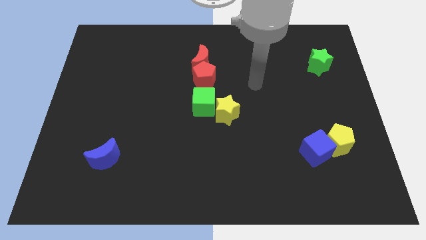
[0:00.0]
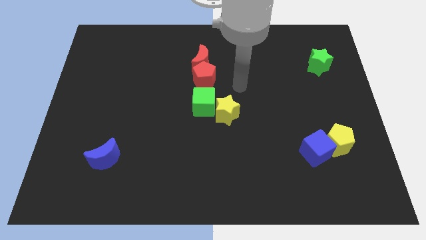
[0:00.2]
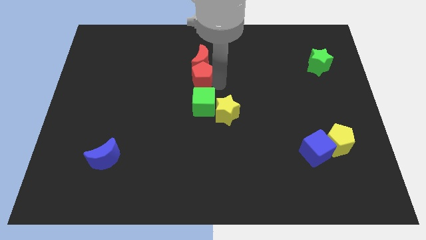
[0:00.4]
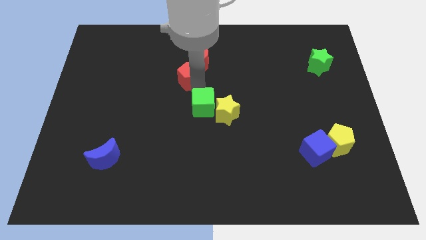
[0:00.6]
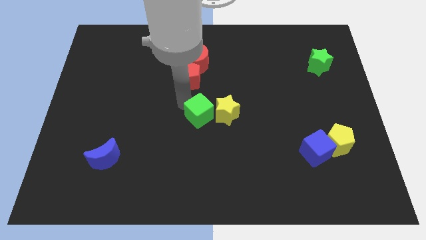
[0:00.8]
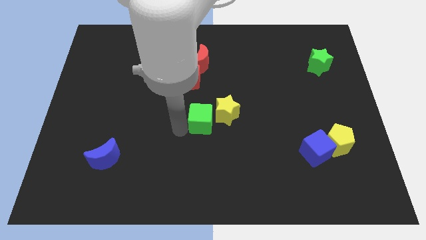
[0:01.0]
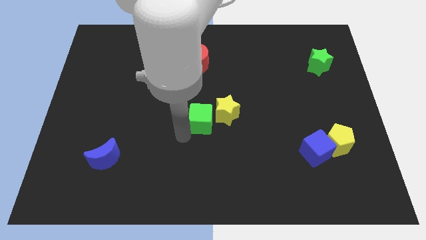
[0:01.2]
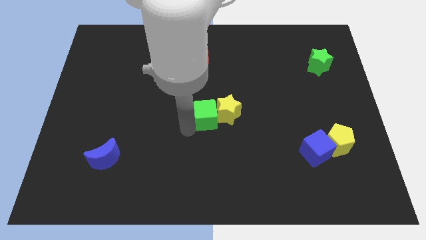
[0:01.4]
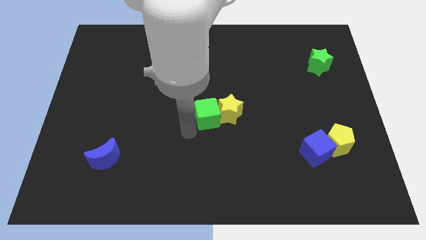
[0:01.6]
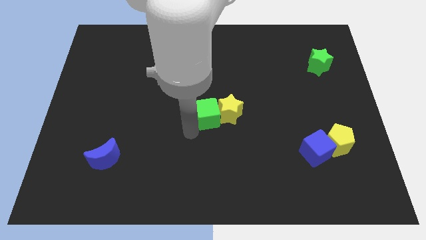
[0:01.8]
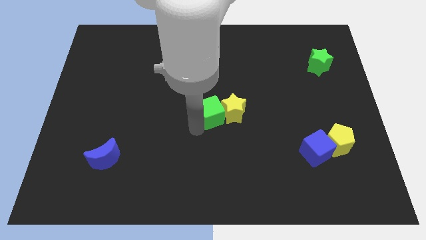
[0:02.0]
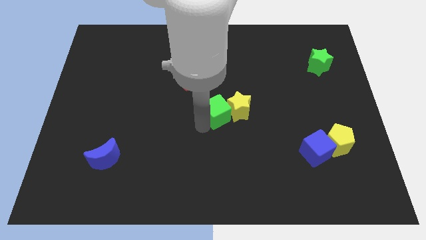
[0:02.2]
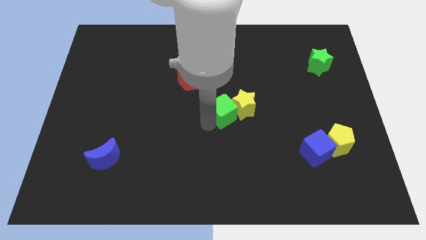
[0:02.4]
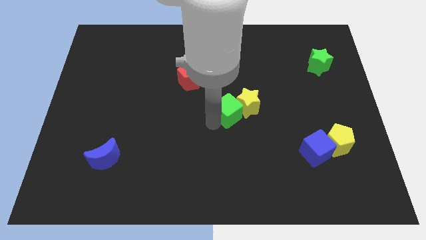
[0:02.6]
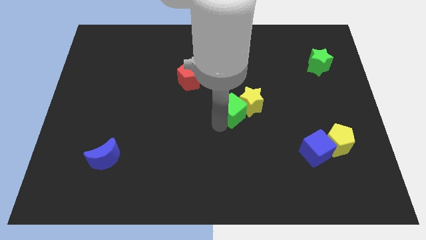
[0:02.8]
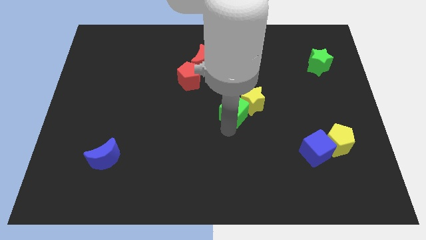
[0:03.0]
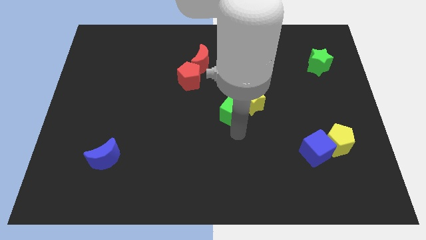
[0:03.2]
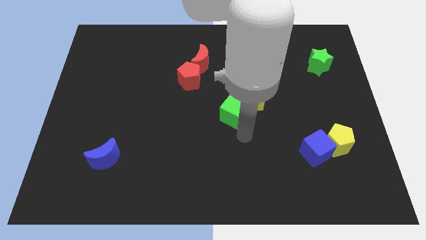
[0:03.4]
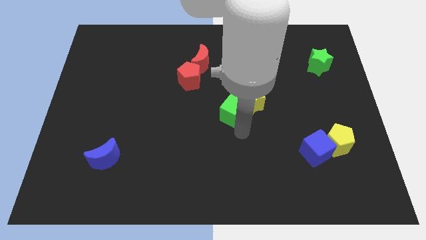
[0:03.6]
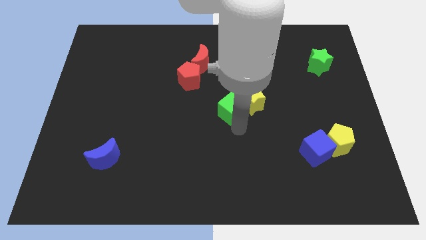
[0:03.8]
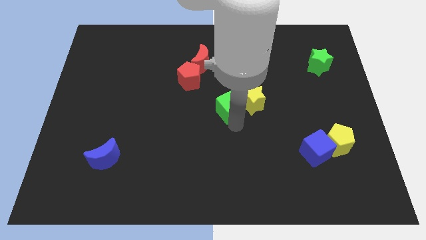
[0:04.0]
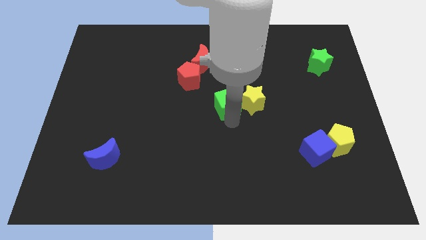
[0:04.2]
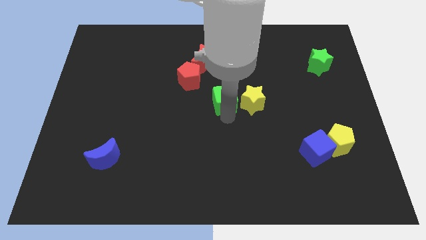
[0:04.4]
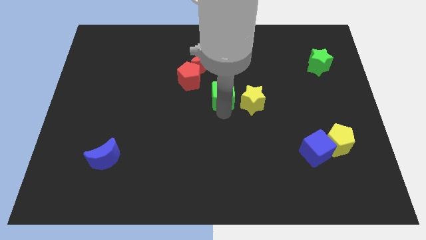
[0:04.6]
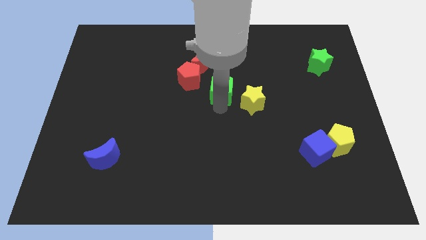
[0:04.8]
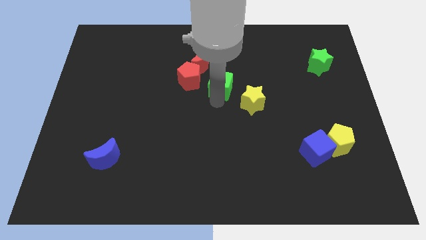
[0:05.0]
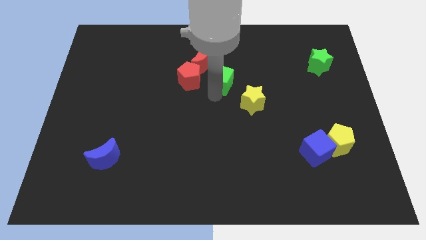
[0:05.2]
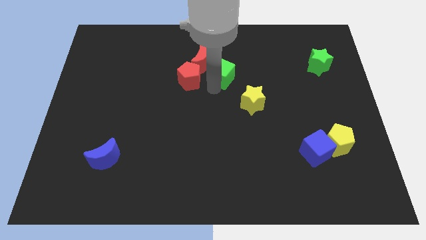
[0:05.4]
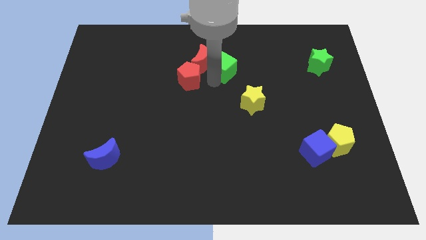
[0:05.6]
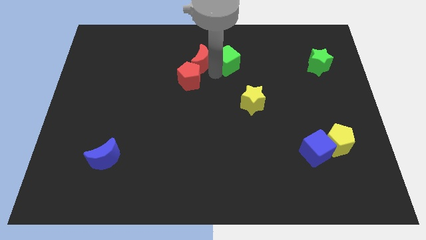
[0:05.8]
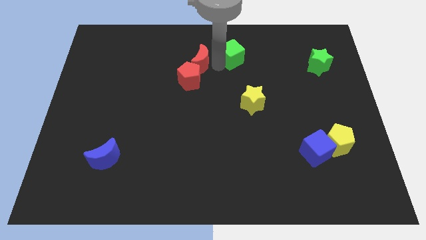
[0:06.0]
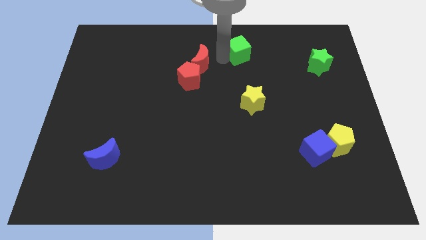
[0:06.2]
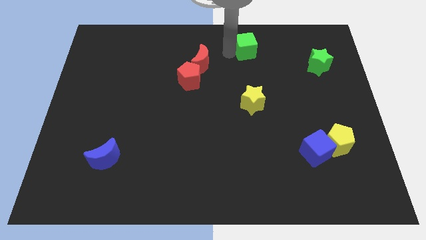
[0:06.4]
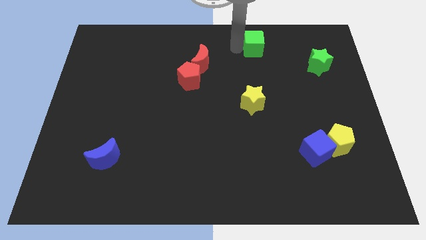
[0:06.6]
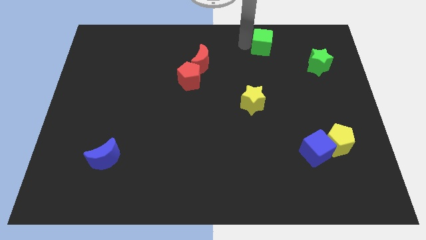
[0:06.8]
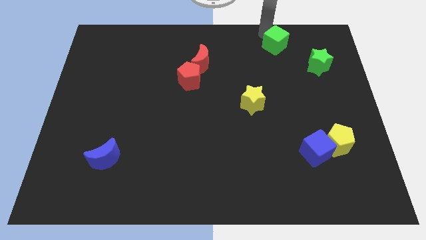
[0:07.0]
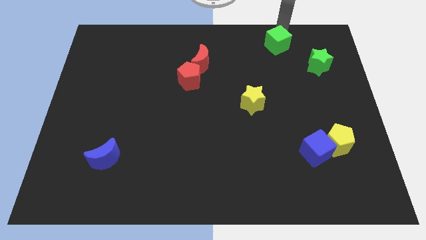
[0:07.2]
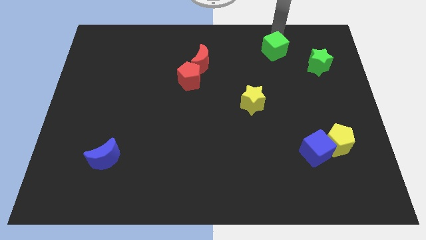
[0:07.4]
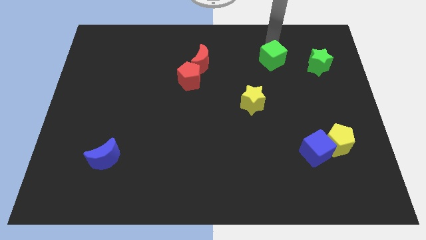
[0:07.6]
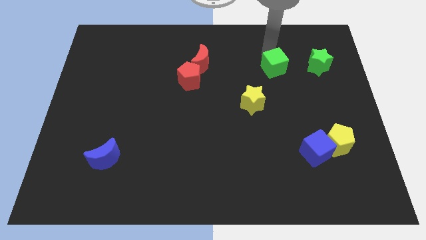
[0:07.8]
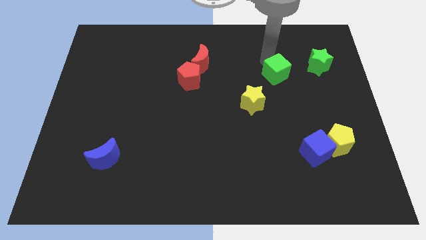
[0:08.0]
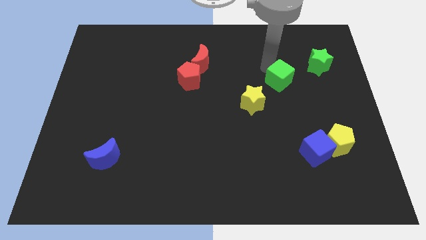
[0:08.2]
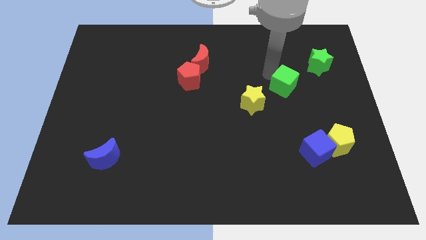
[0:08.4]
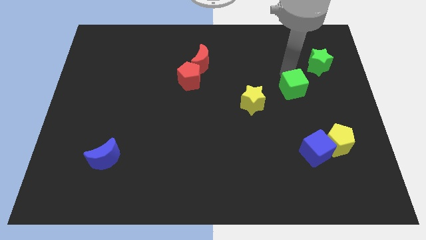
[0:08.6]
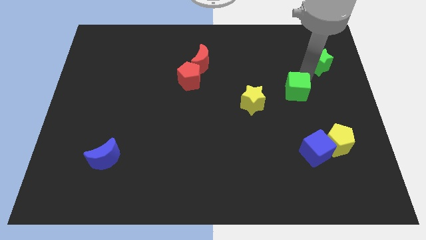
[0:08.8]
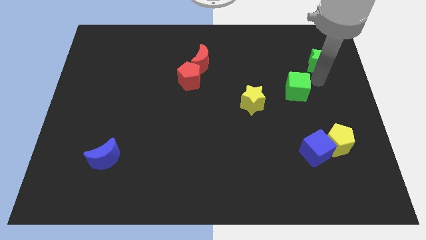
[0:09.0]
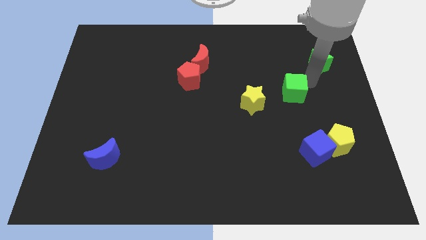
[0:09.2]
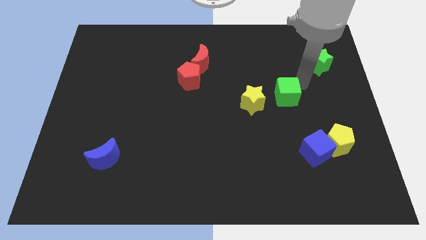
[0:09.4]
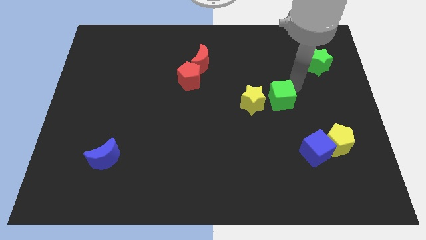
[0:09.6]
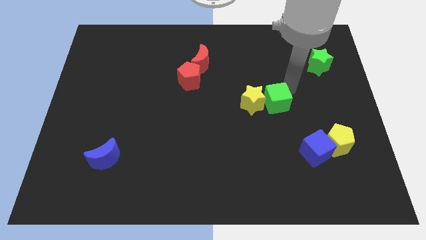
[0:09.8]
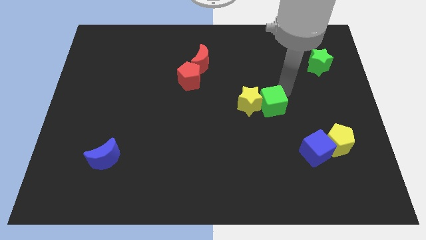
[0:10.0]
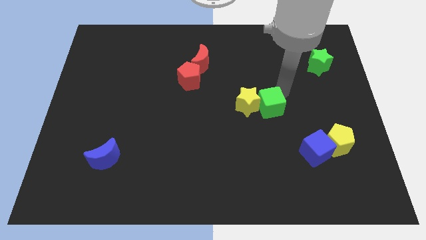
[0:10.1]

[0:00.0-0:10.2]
put the green cube to the right side of the yellow star

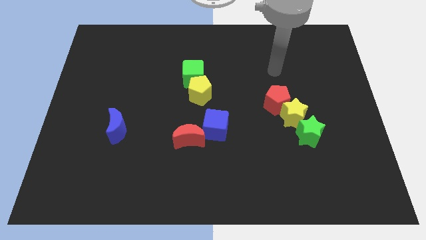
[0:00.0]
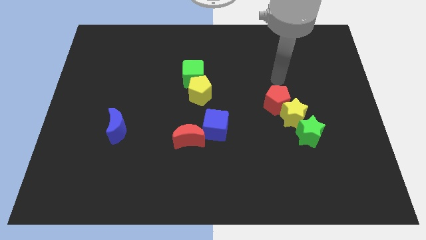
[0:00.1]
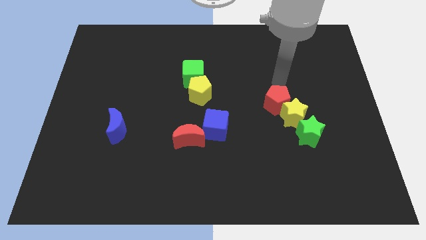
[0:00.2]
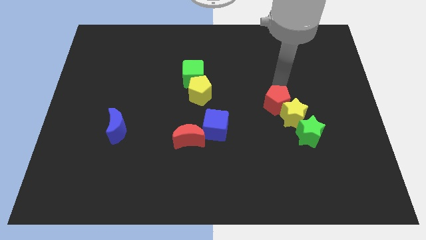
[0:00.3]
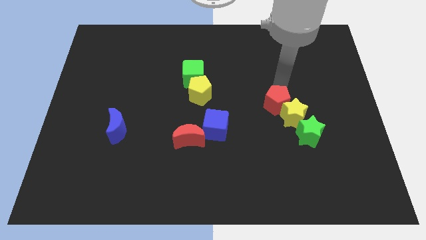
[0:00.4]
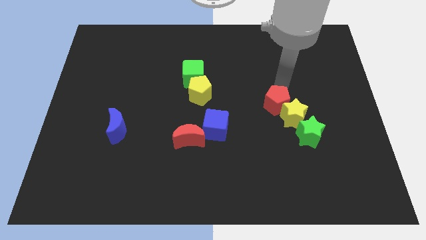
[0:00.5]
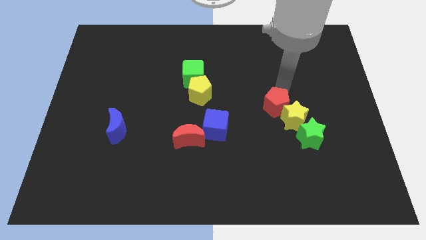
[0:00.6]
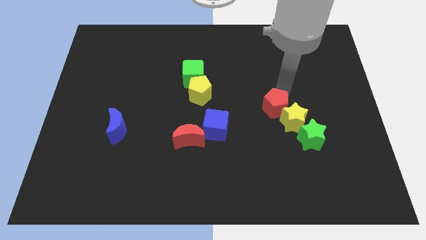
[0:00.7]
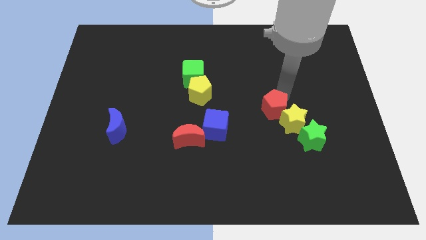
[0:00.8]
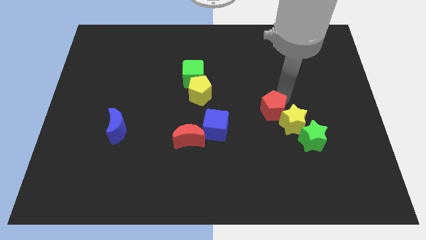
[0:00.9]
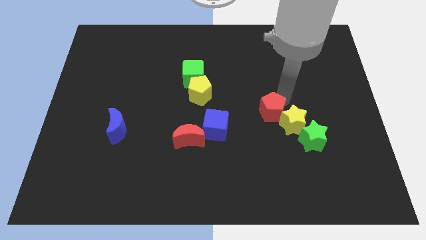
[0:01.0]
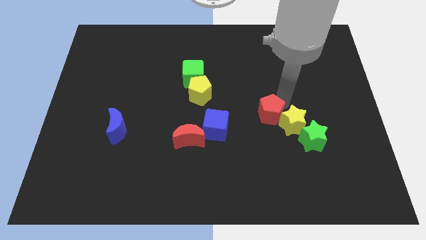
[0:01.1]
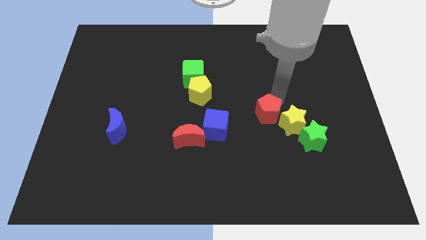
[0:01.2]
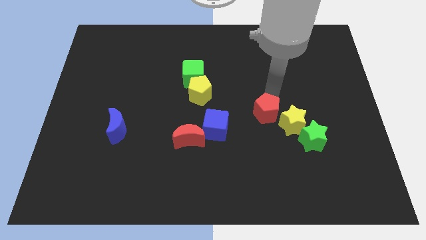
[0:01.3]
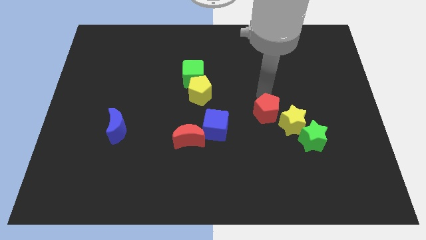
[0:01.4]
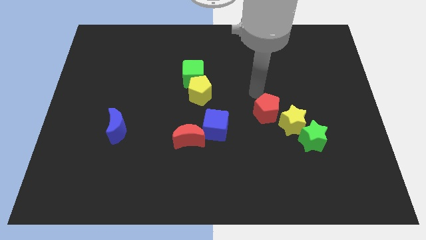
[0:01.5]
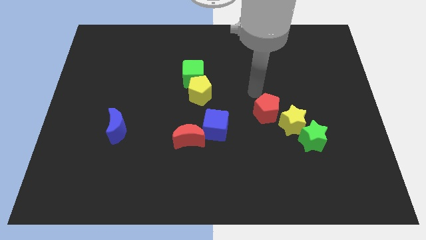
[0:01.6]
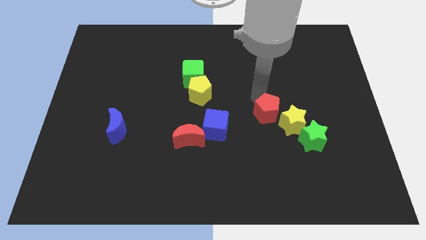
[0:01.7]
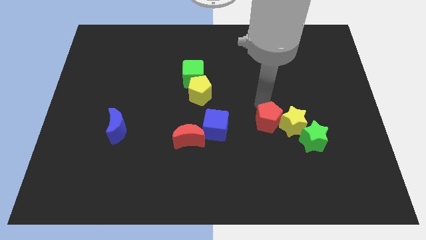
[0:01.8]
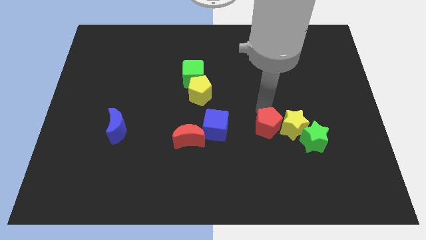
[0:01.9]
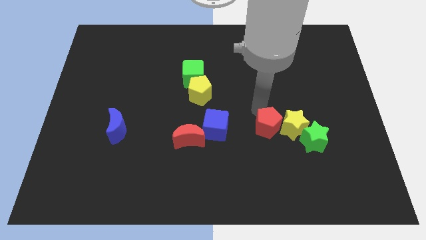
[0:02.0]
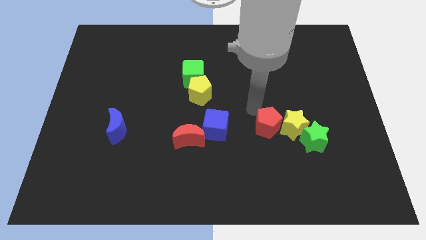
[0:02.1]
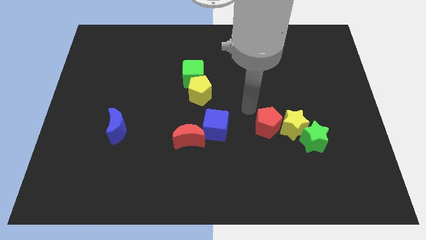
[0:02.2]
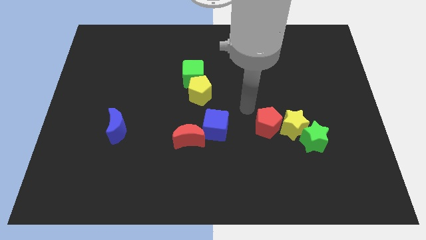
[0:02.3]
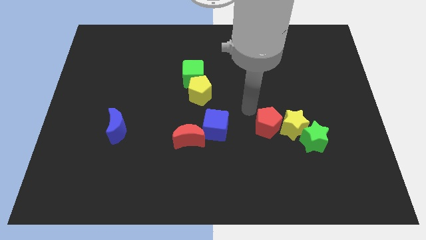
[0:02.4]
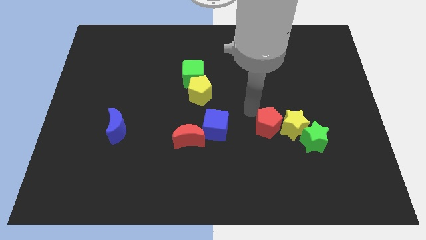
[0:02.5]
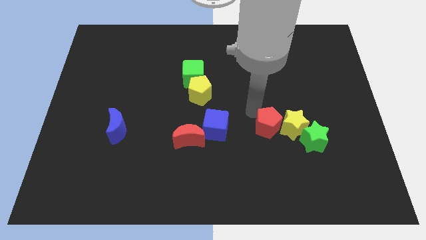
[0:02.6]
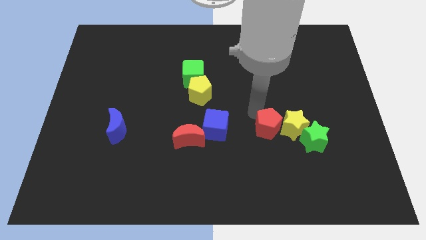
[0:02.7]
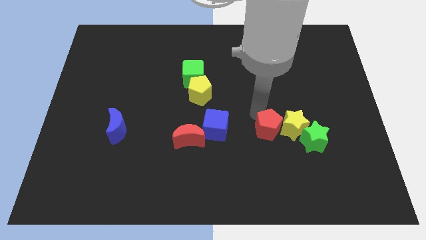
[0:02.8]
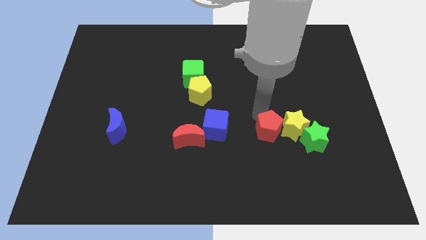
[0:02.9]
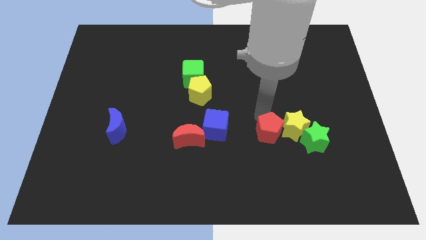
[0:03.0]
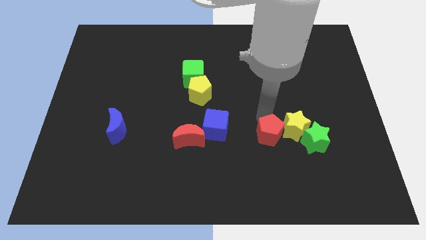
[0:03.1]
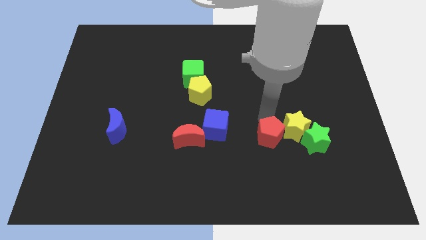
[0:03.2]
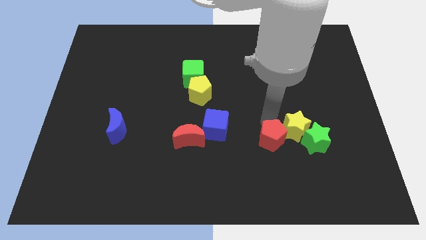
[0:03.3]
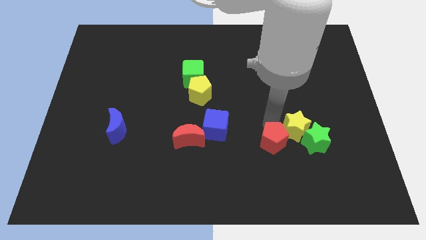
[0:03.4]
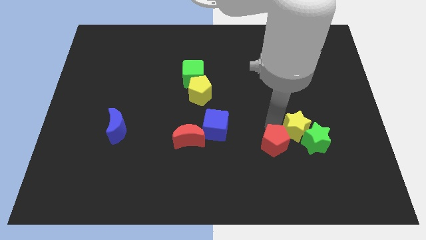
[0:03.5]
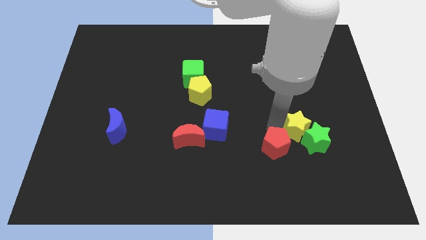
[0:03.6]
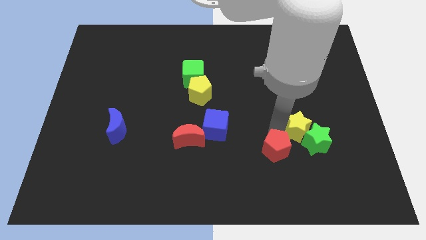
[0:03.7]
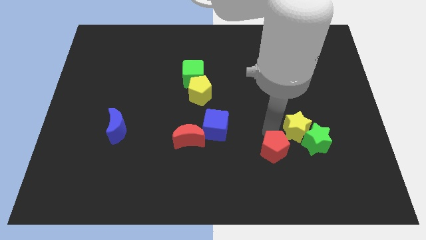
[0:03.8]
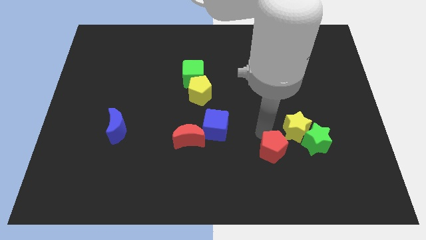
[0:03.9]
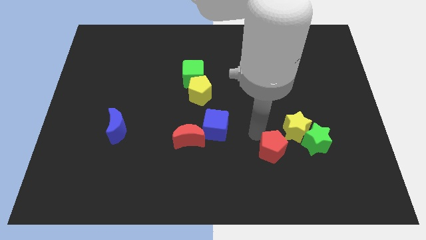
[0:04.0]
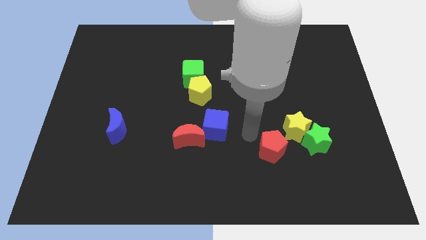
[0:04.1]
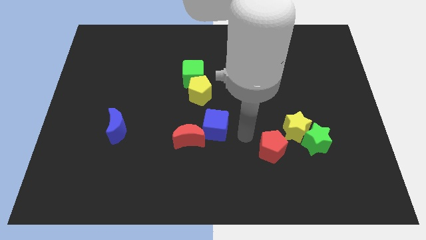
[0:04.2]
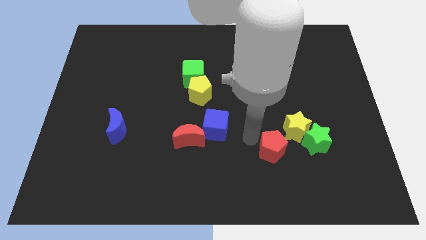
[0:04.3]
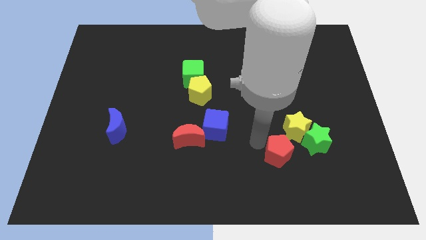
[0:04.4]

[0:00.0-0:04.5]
put the red pentagon to the bottom left side of the green star
